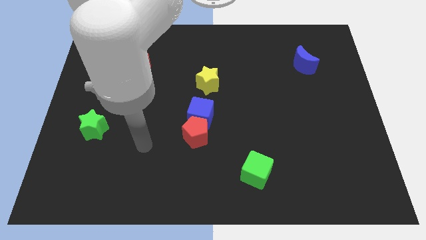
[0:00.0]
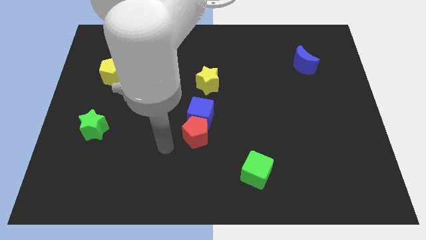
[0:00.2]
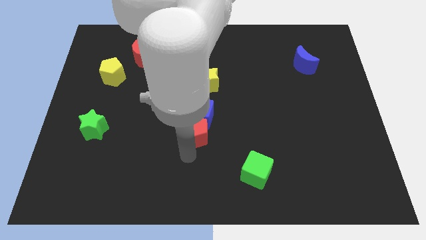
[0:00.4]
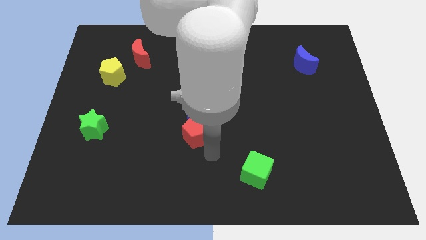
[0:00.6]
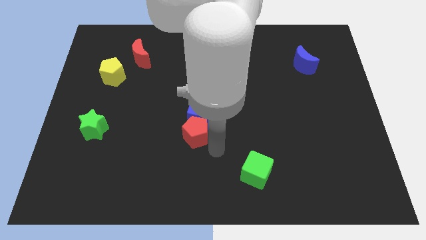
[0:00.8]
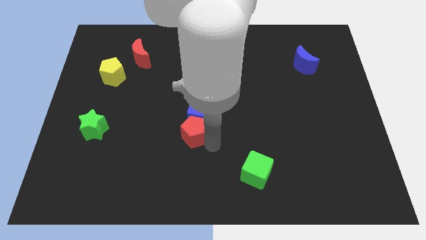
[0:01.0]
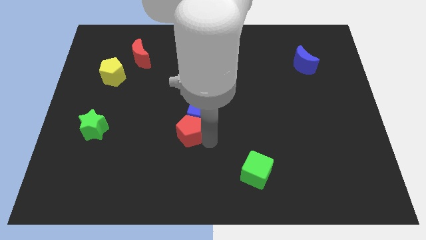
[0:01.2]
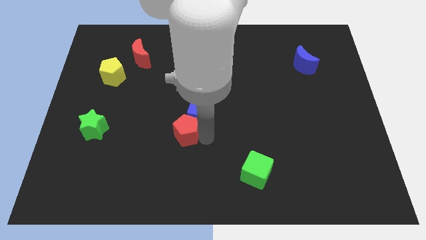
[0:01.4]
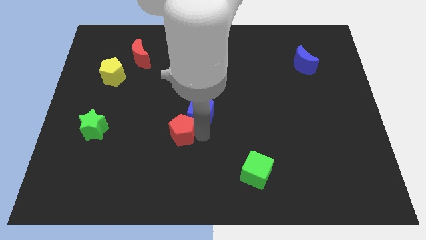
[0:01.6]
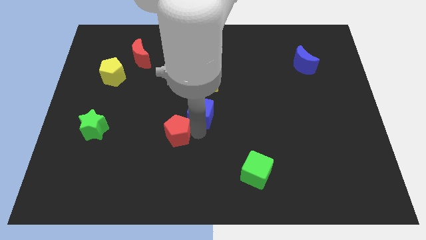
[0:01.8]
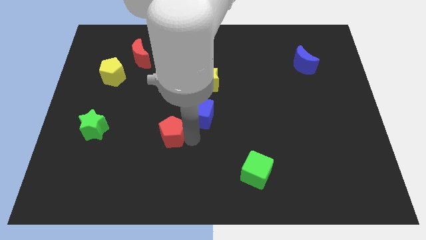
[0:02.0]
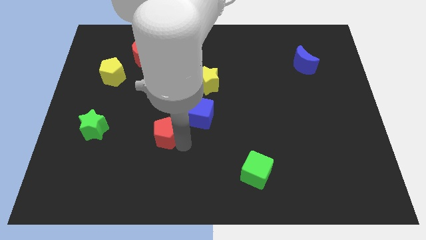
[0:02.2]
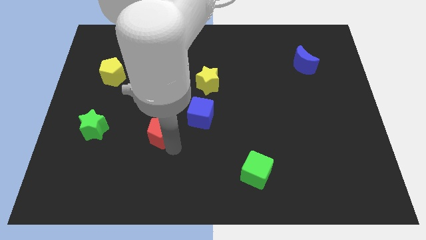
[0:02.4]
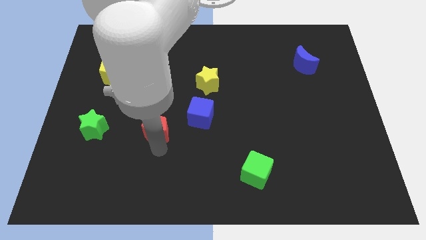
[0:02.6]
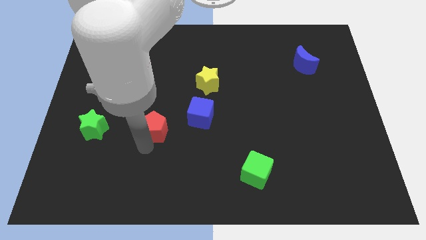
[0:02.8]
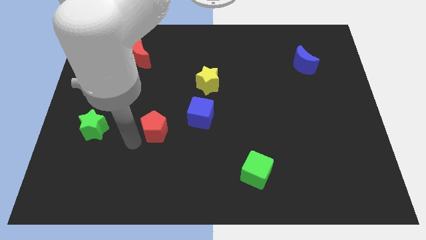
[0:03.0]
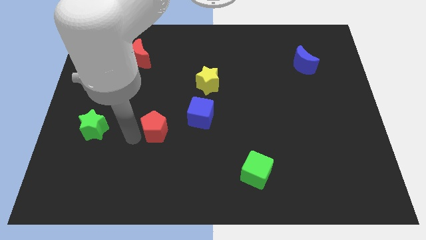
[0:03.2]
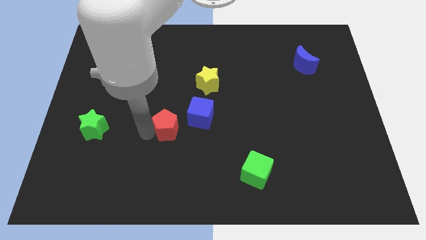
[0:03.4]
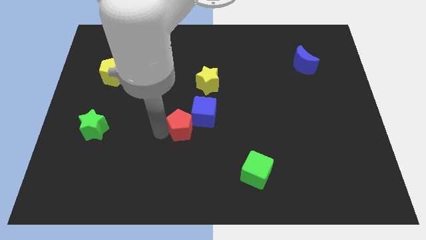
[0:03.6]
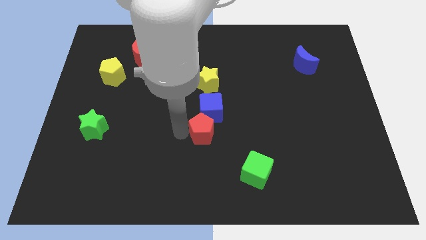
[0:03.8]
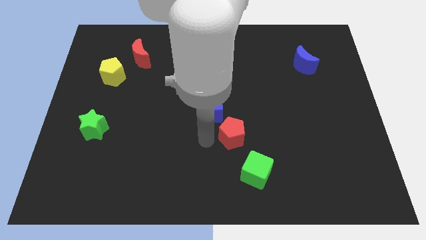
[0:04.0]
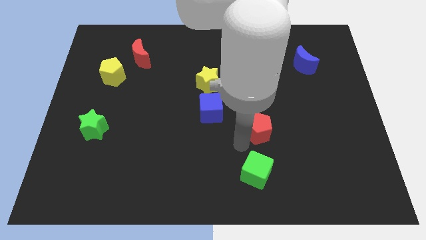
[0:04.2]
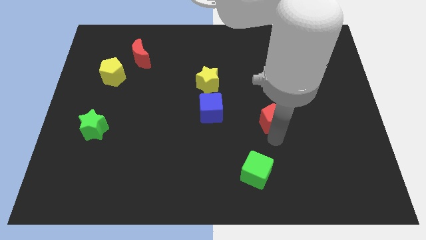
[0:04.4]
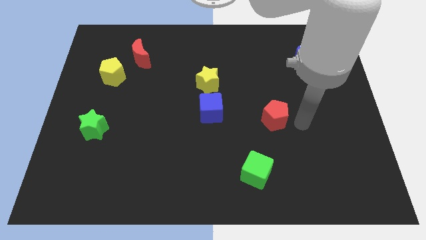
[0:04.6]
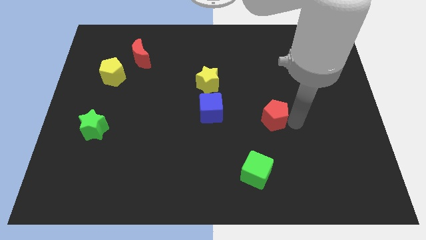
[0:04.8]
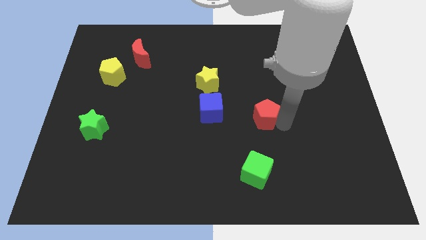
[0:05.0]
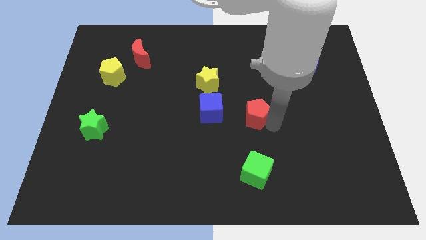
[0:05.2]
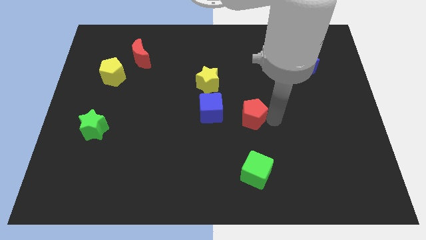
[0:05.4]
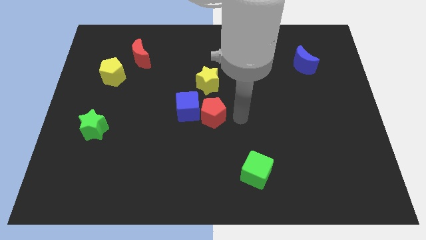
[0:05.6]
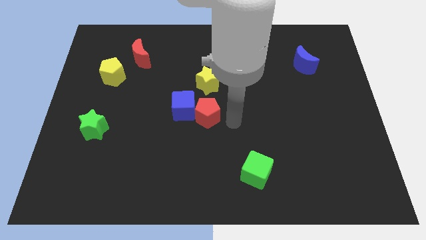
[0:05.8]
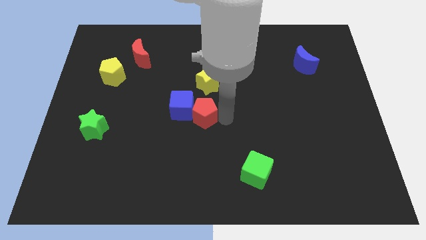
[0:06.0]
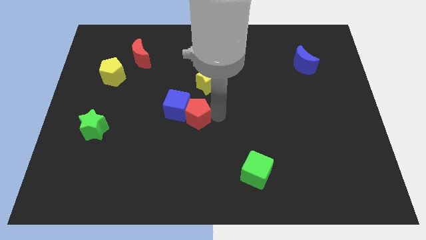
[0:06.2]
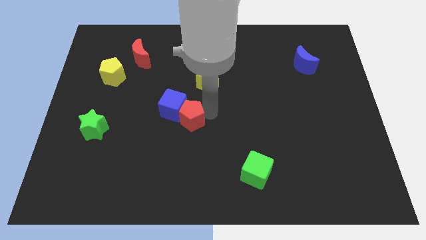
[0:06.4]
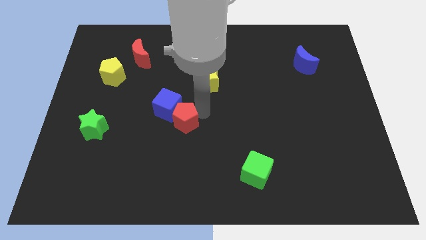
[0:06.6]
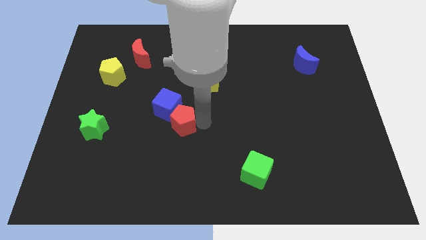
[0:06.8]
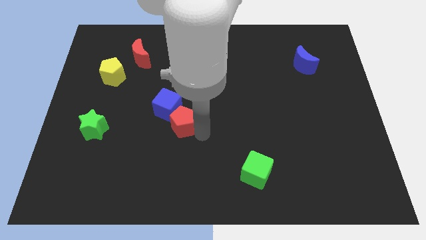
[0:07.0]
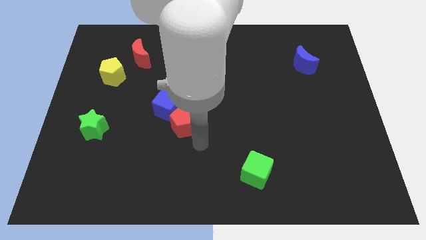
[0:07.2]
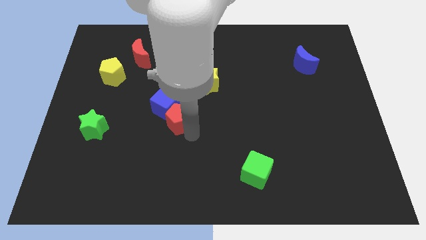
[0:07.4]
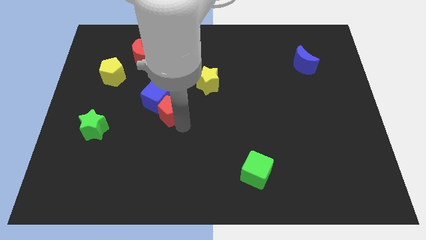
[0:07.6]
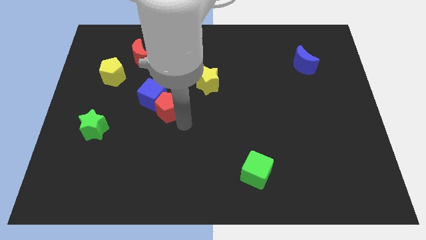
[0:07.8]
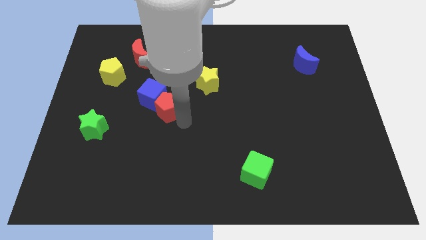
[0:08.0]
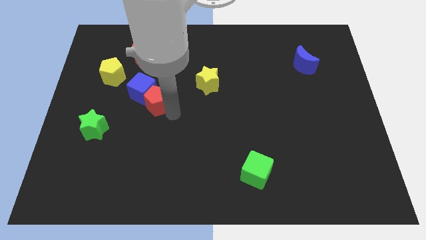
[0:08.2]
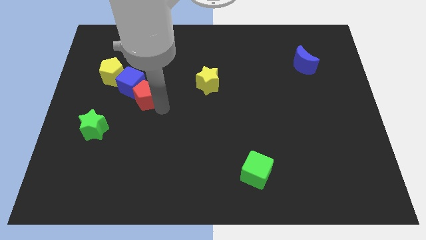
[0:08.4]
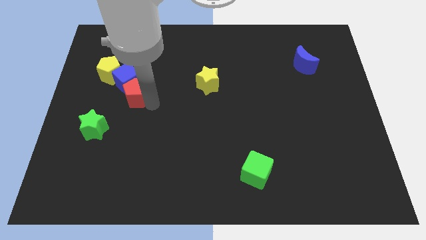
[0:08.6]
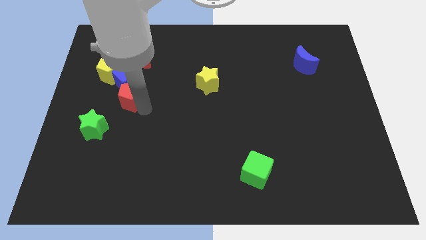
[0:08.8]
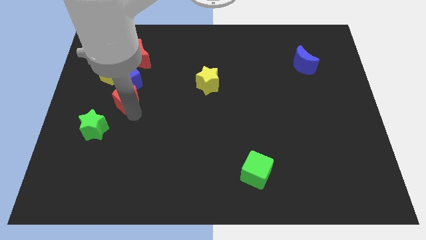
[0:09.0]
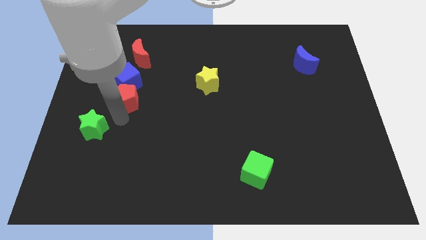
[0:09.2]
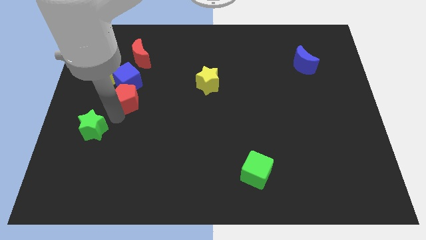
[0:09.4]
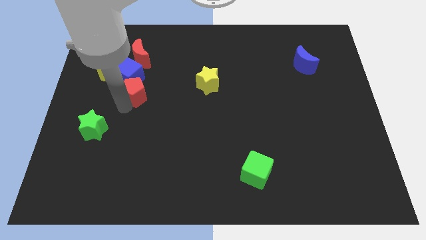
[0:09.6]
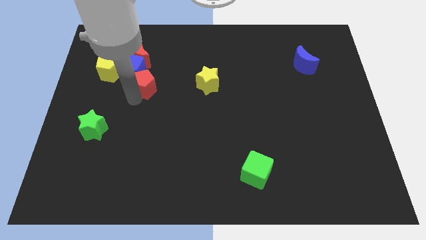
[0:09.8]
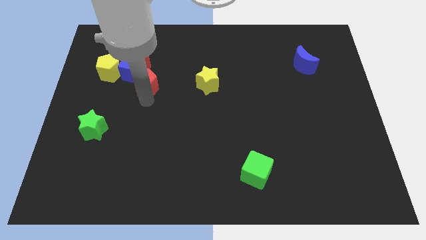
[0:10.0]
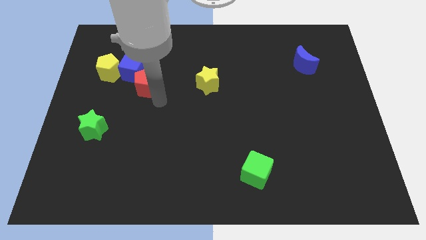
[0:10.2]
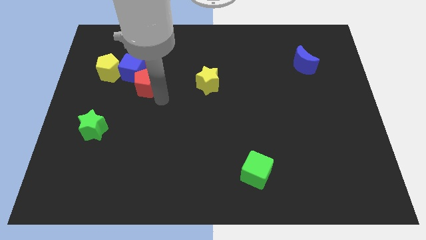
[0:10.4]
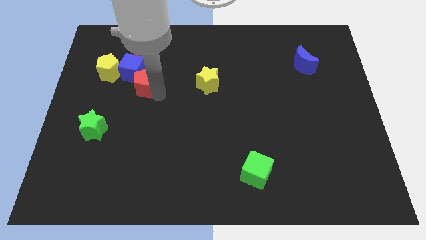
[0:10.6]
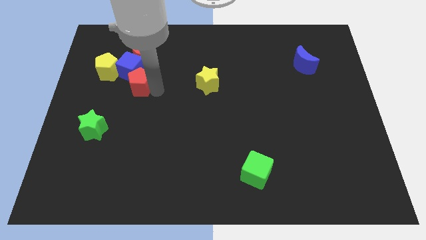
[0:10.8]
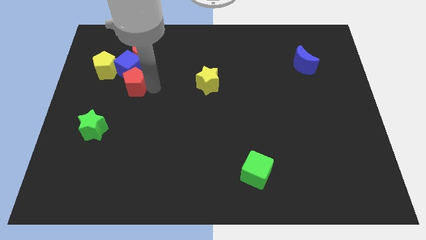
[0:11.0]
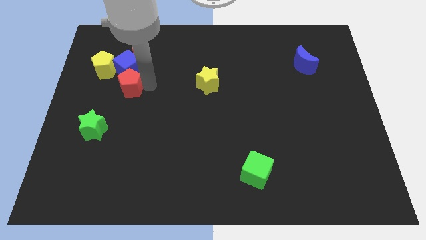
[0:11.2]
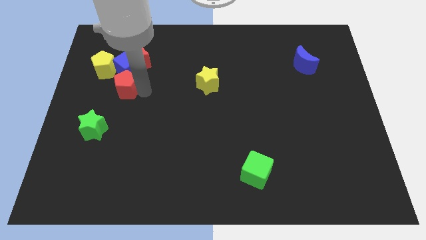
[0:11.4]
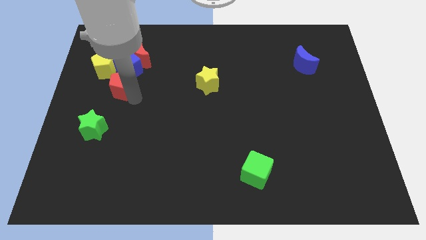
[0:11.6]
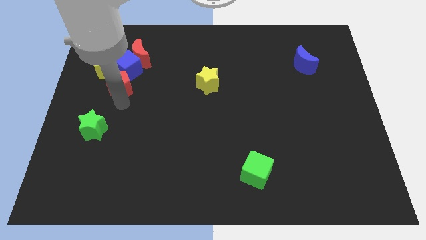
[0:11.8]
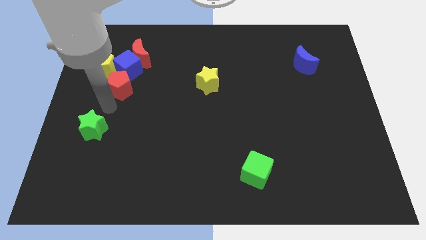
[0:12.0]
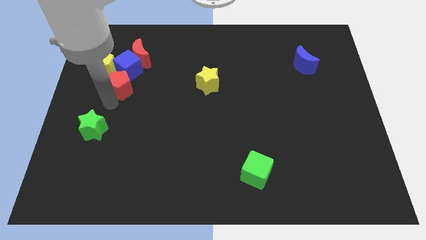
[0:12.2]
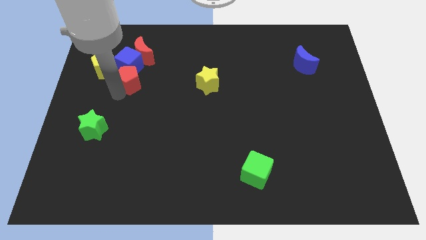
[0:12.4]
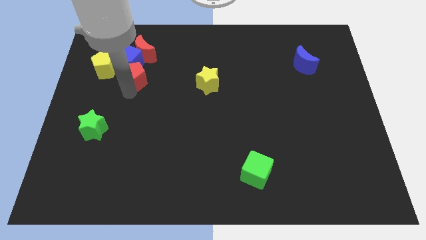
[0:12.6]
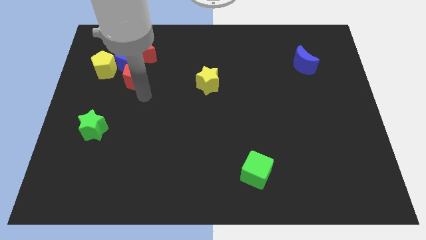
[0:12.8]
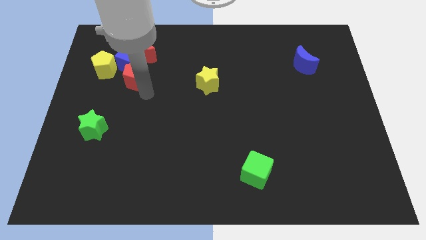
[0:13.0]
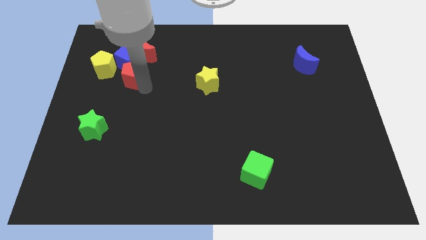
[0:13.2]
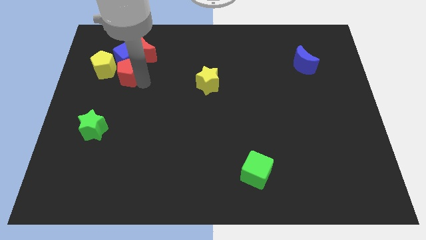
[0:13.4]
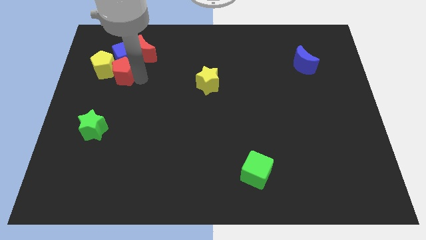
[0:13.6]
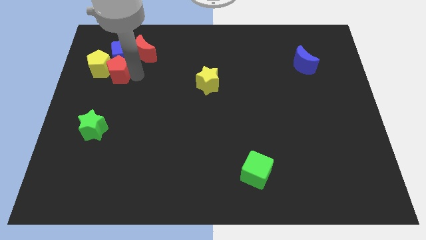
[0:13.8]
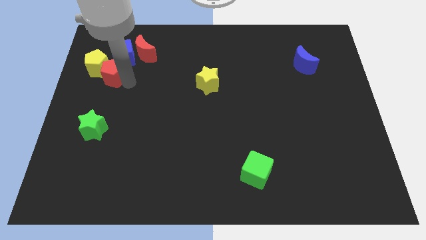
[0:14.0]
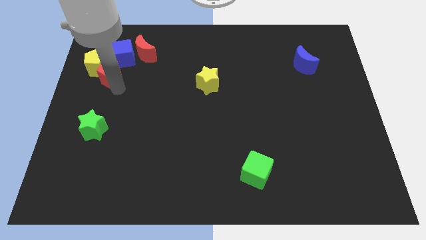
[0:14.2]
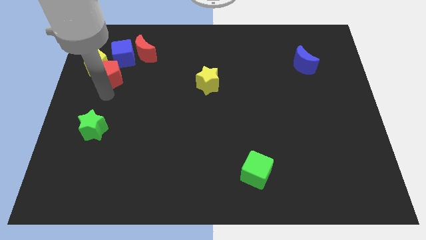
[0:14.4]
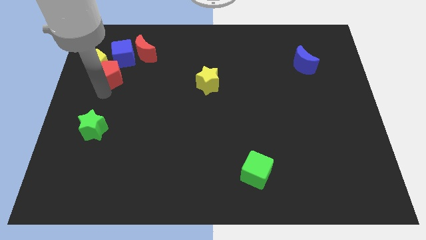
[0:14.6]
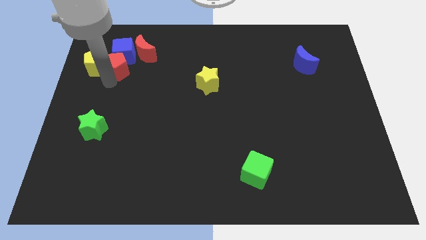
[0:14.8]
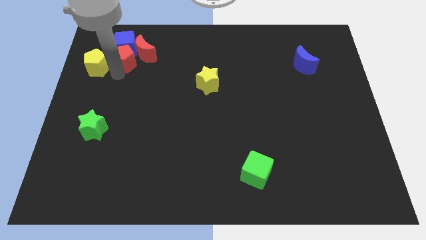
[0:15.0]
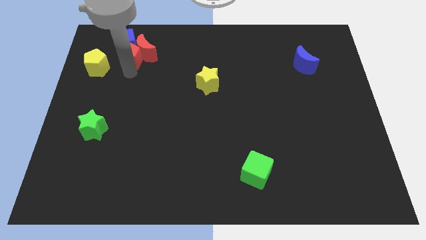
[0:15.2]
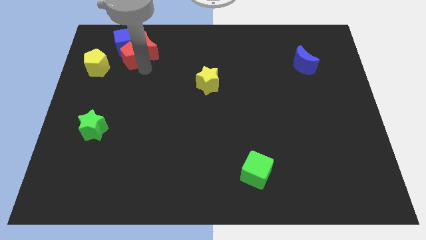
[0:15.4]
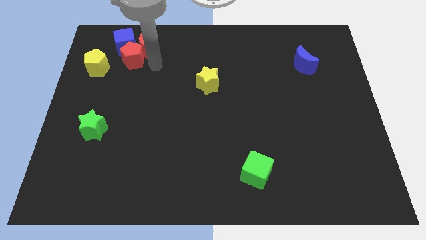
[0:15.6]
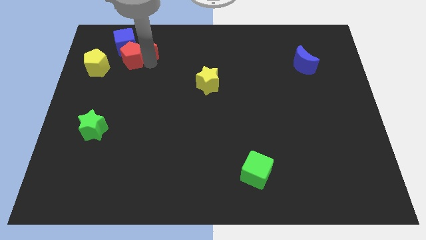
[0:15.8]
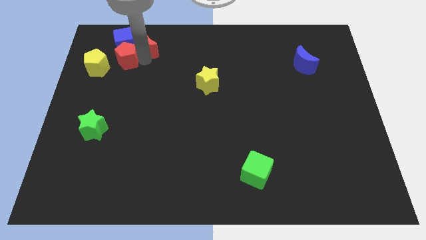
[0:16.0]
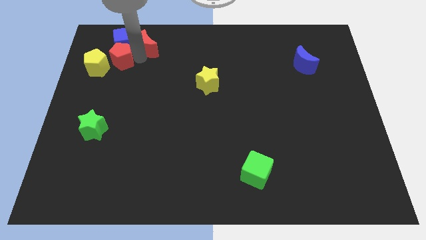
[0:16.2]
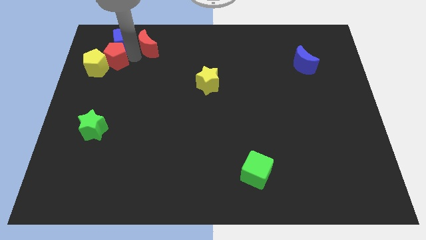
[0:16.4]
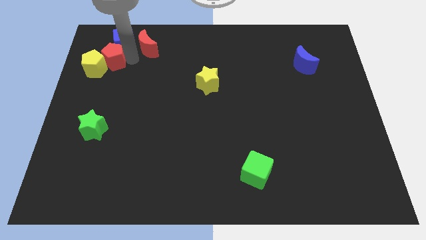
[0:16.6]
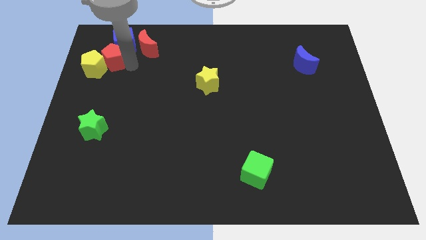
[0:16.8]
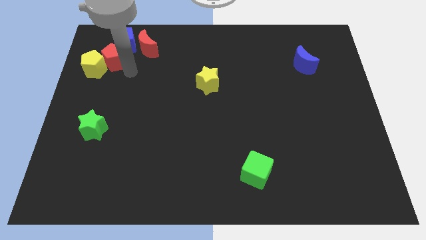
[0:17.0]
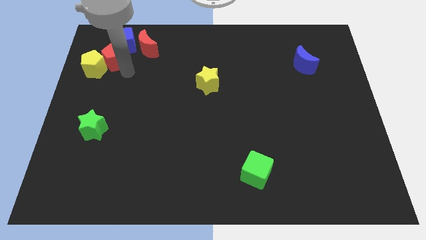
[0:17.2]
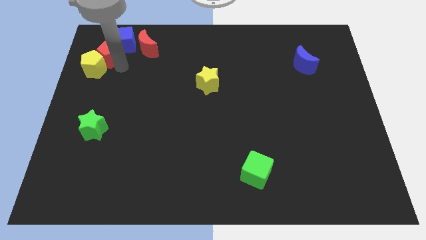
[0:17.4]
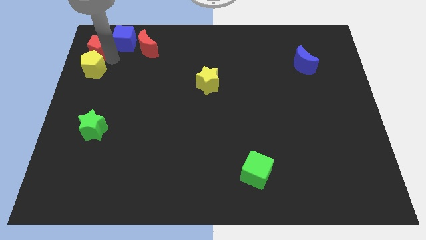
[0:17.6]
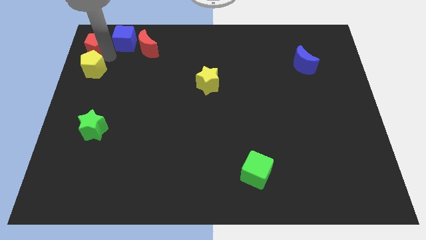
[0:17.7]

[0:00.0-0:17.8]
push the red pentagon to the top left
